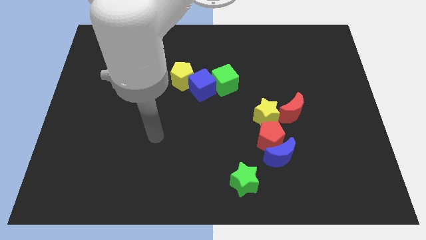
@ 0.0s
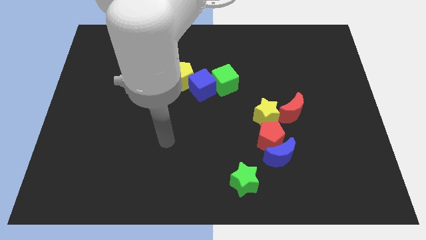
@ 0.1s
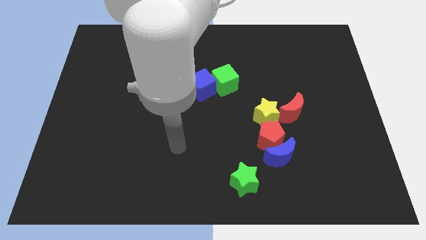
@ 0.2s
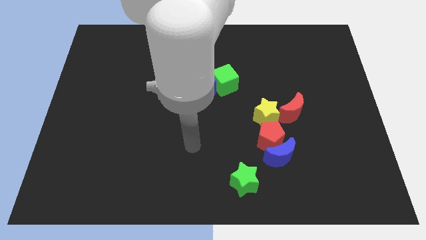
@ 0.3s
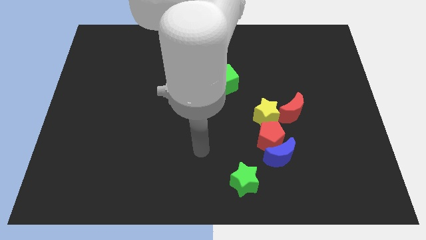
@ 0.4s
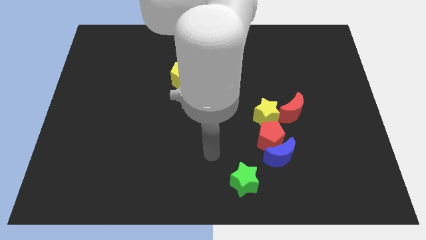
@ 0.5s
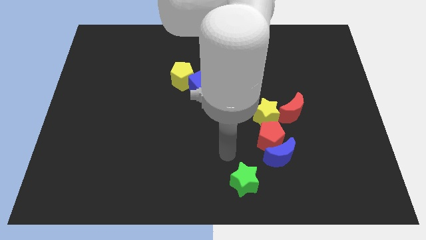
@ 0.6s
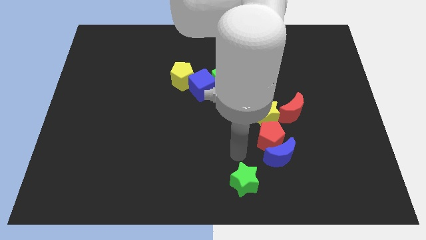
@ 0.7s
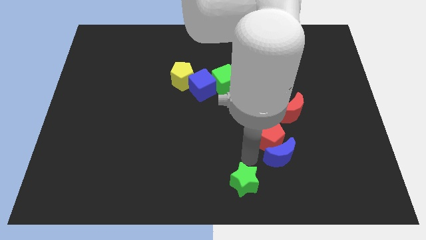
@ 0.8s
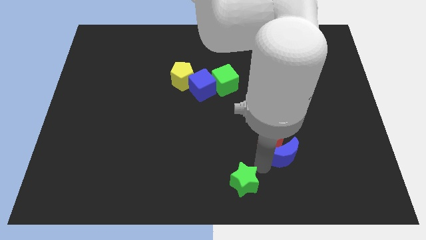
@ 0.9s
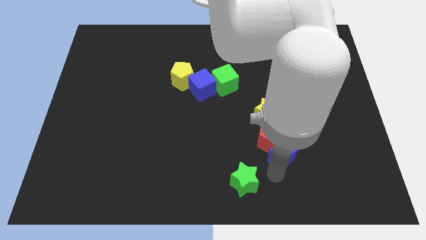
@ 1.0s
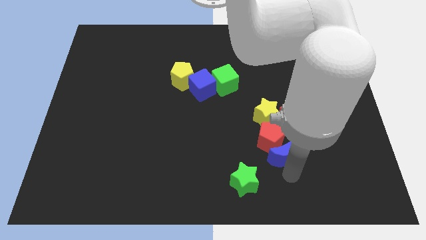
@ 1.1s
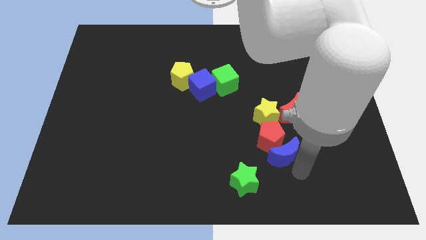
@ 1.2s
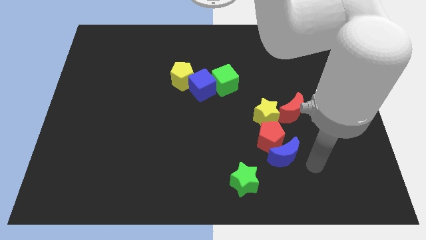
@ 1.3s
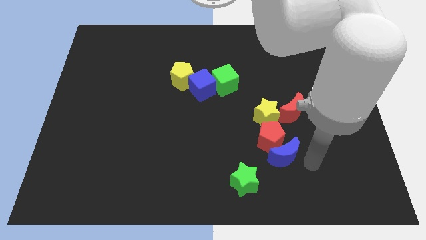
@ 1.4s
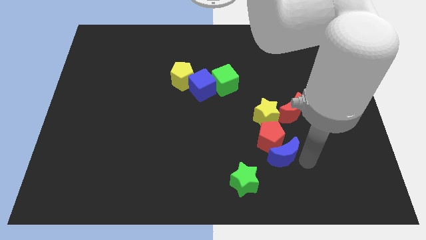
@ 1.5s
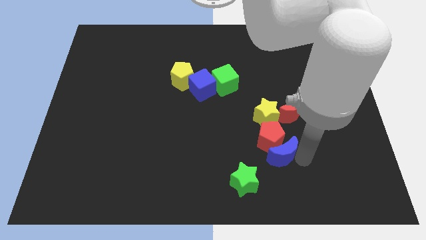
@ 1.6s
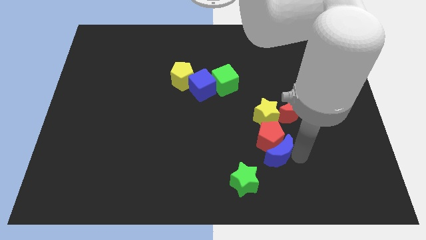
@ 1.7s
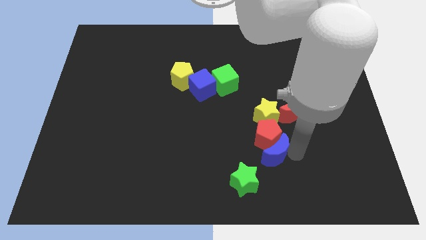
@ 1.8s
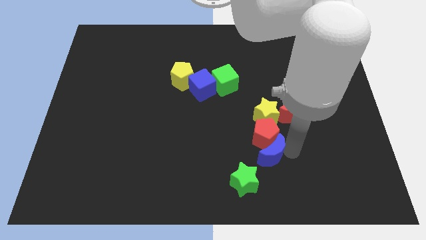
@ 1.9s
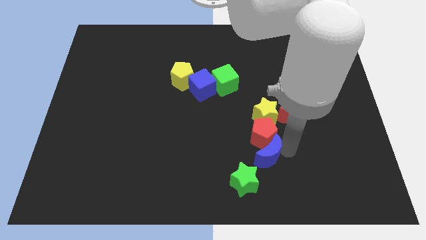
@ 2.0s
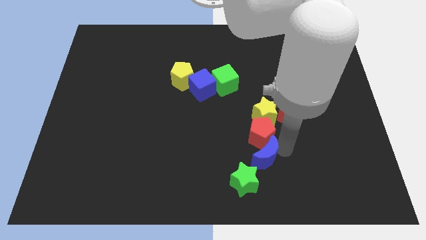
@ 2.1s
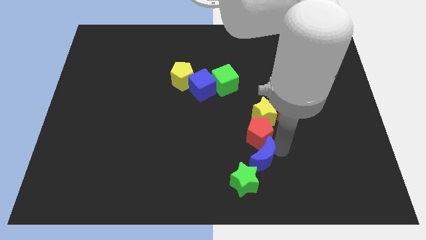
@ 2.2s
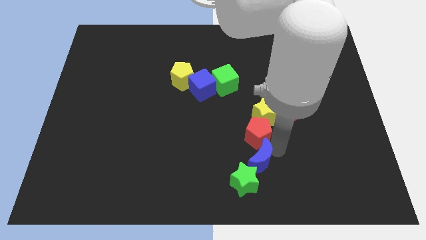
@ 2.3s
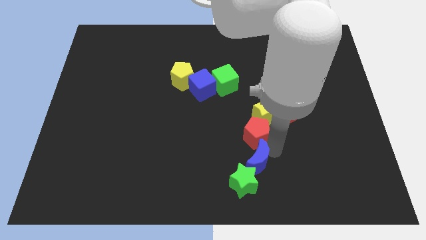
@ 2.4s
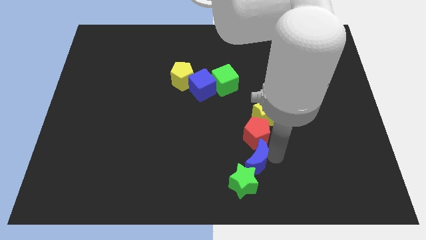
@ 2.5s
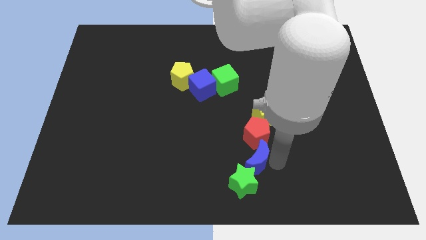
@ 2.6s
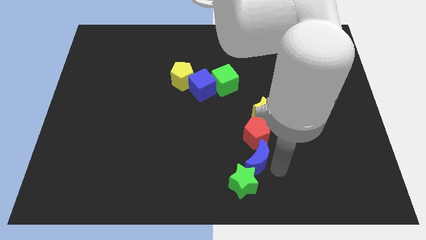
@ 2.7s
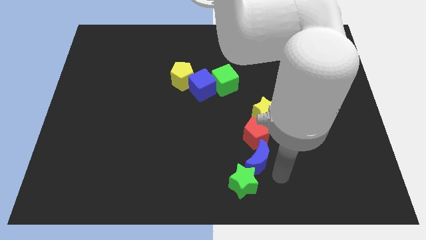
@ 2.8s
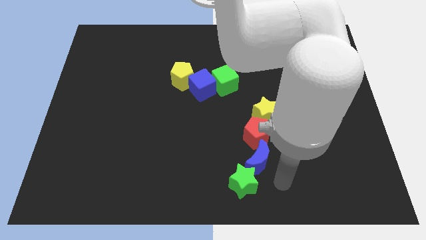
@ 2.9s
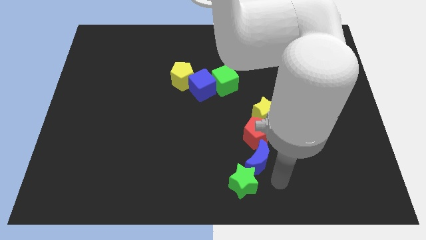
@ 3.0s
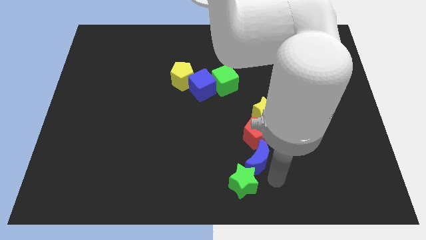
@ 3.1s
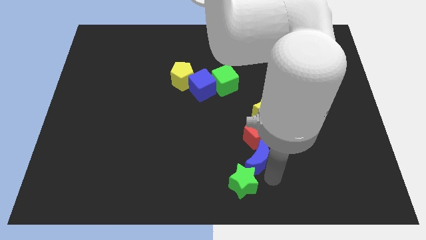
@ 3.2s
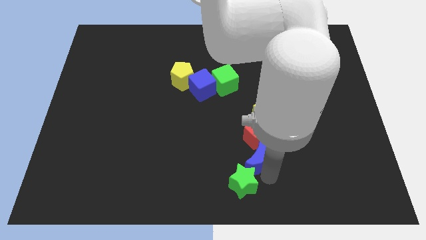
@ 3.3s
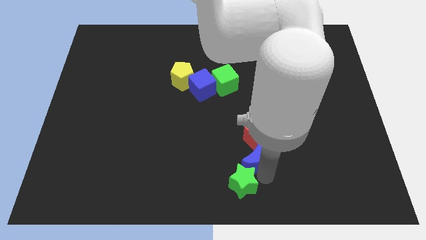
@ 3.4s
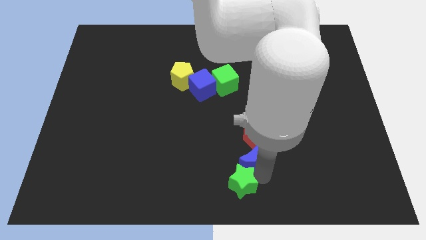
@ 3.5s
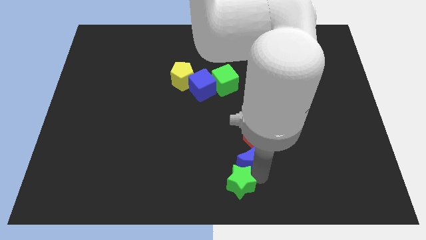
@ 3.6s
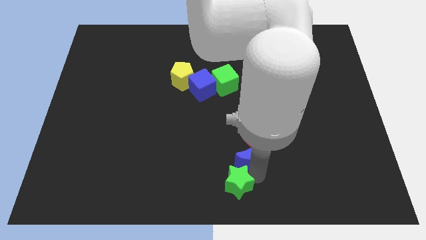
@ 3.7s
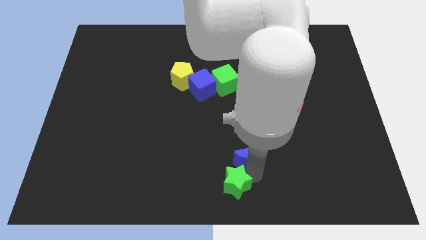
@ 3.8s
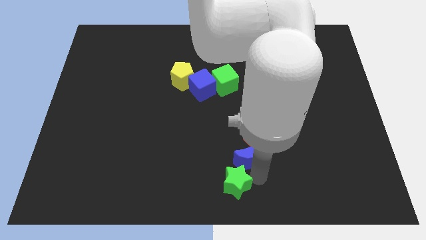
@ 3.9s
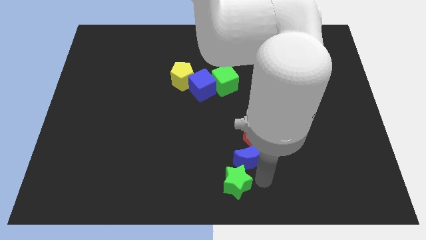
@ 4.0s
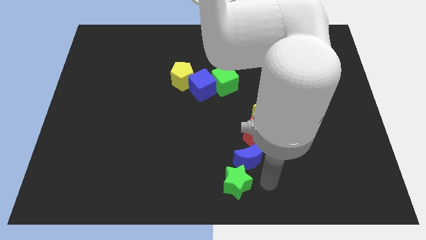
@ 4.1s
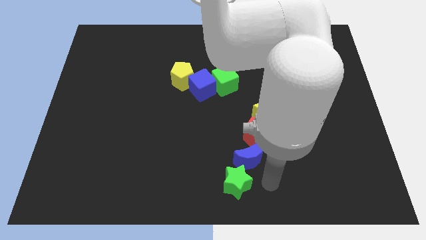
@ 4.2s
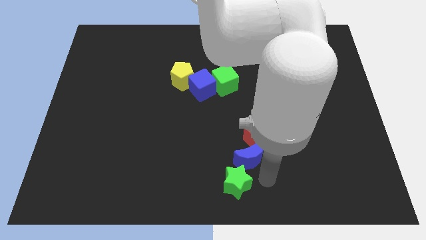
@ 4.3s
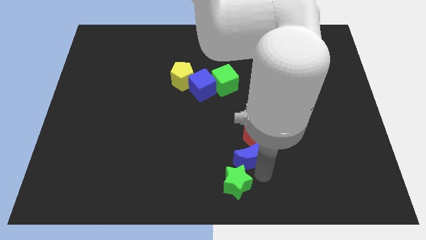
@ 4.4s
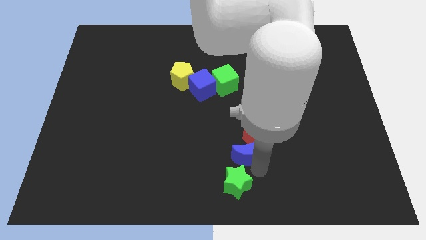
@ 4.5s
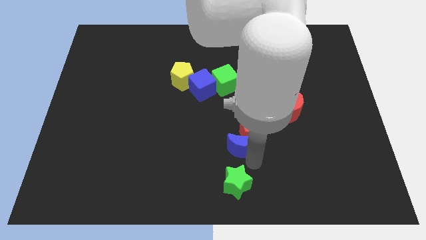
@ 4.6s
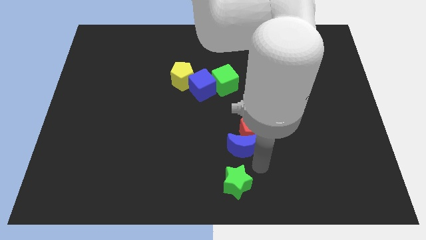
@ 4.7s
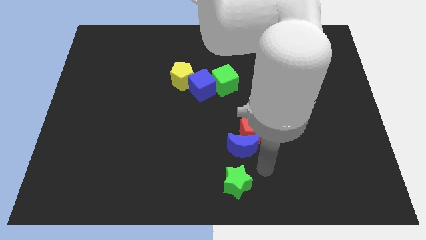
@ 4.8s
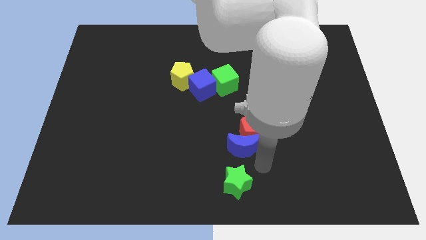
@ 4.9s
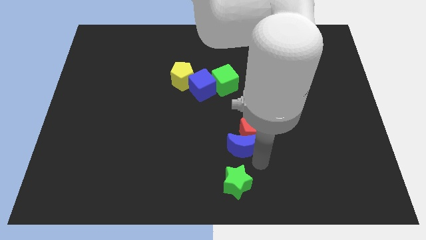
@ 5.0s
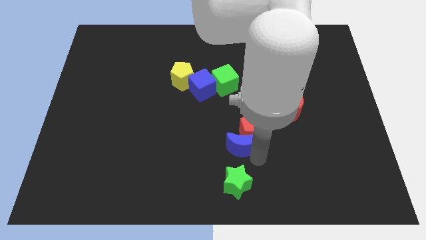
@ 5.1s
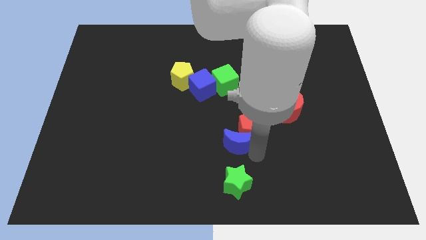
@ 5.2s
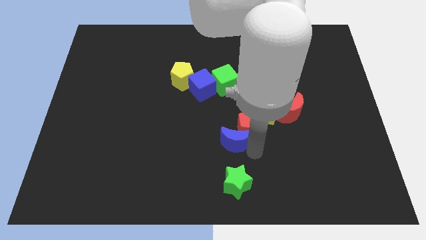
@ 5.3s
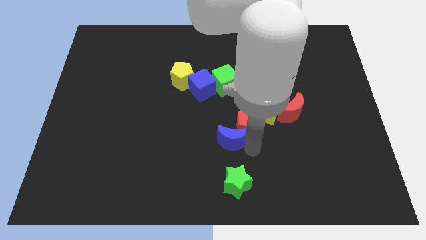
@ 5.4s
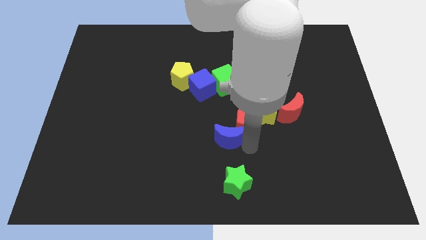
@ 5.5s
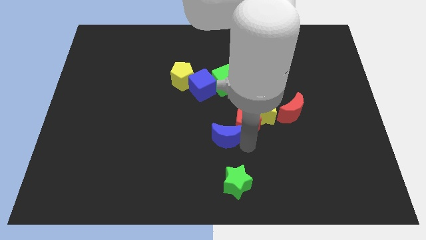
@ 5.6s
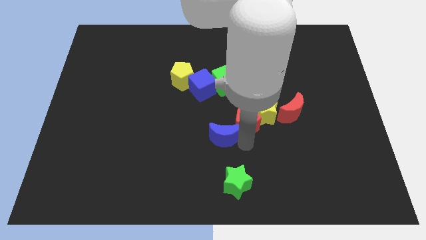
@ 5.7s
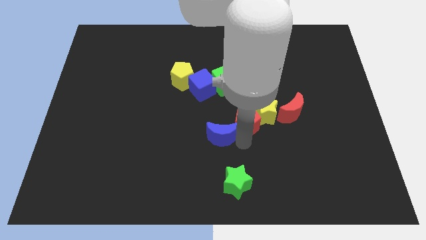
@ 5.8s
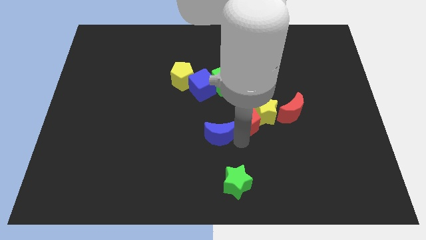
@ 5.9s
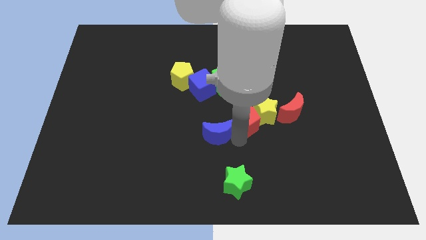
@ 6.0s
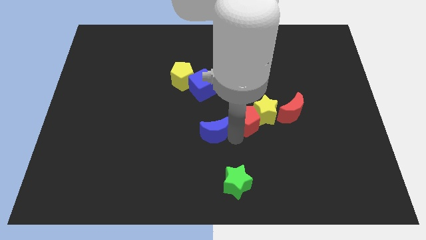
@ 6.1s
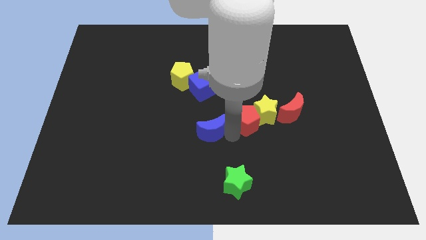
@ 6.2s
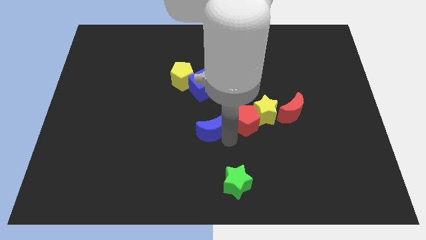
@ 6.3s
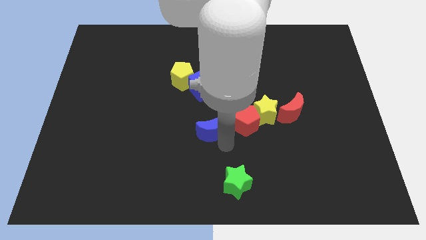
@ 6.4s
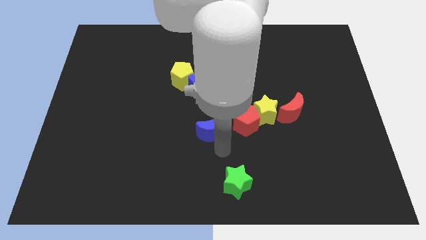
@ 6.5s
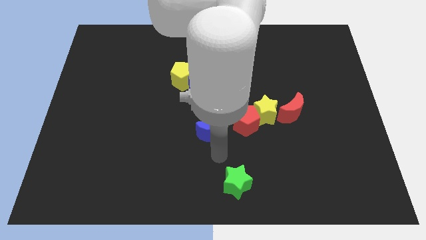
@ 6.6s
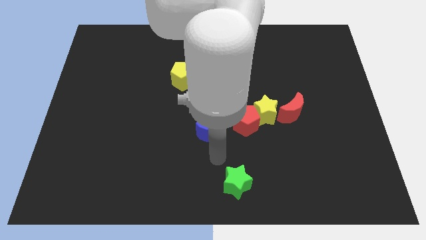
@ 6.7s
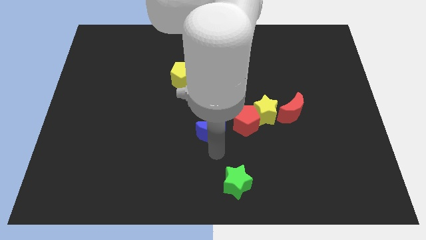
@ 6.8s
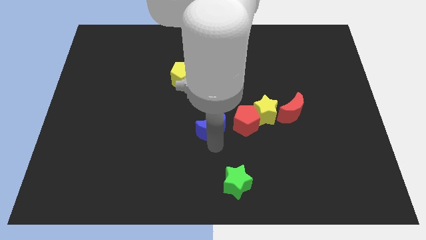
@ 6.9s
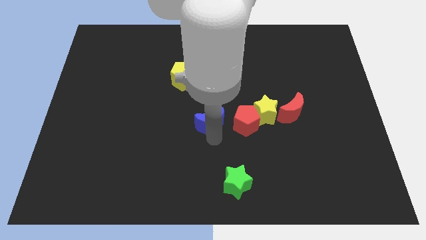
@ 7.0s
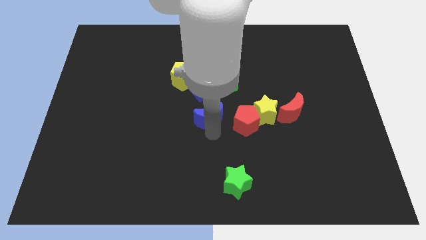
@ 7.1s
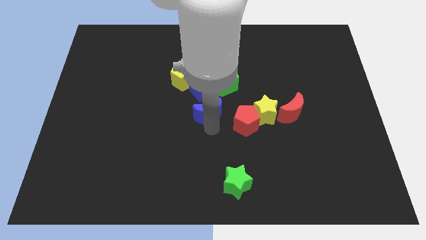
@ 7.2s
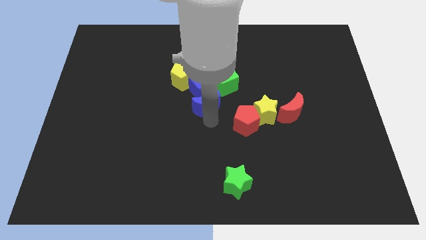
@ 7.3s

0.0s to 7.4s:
slide the blue moon next to the blue cube

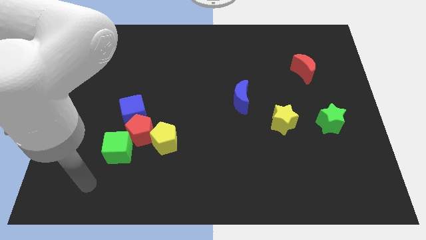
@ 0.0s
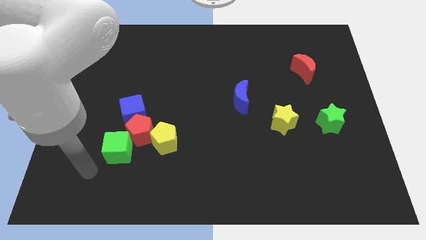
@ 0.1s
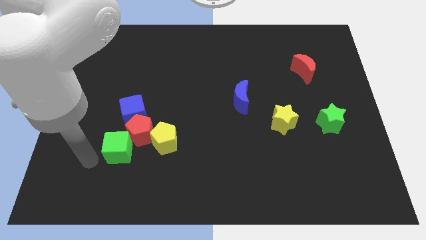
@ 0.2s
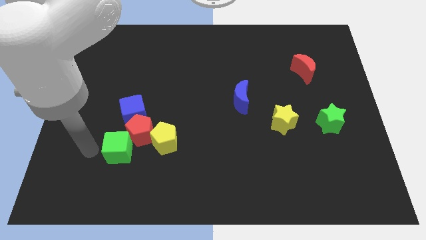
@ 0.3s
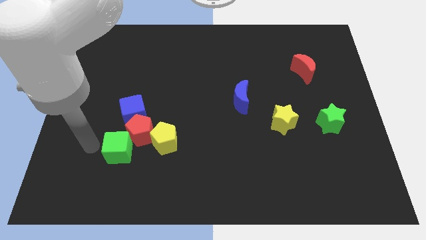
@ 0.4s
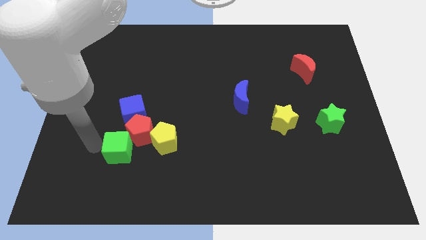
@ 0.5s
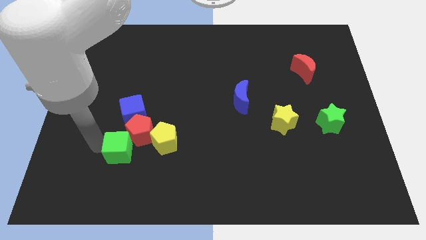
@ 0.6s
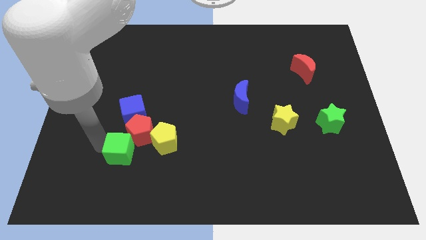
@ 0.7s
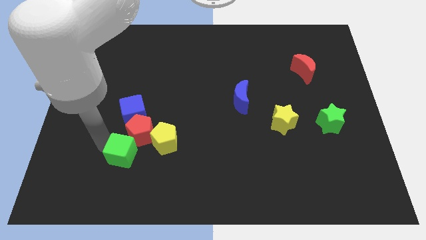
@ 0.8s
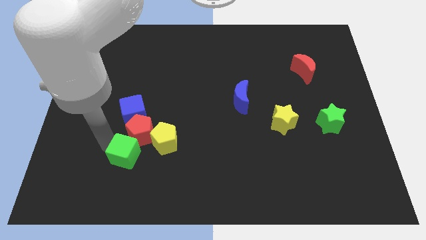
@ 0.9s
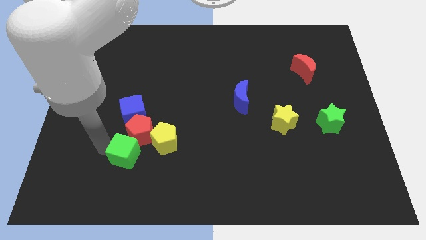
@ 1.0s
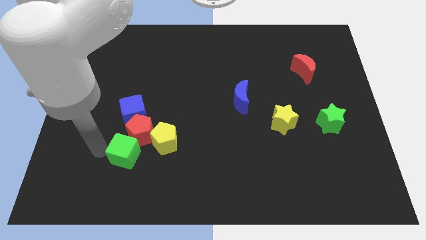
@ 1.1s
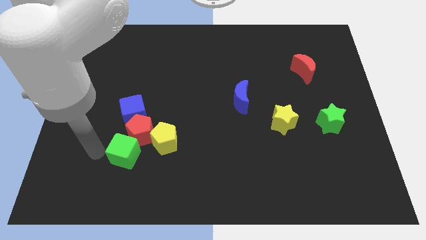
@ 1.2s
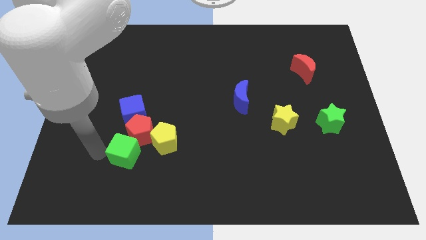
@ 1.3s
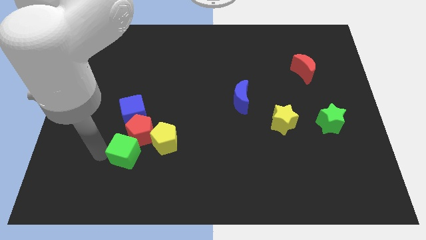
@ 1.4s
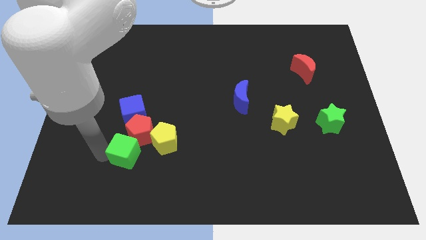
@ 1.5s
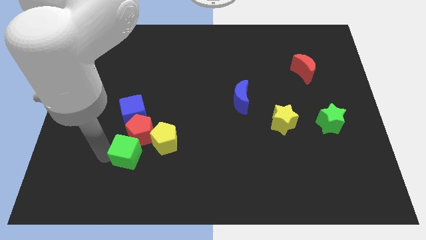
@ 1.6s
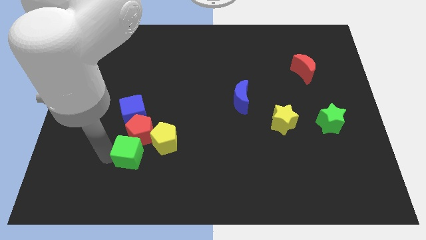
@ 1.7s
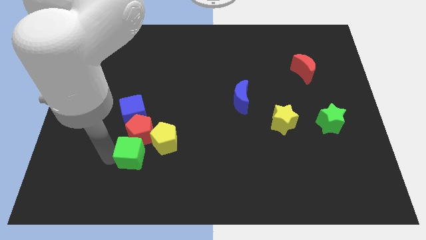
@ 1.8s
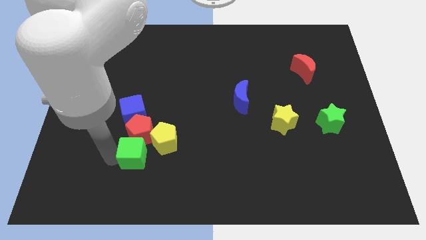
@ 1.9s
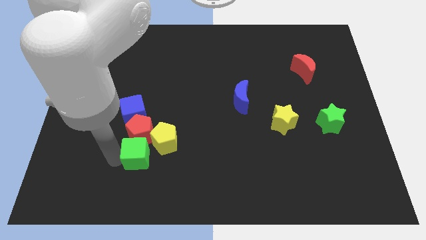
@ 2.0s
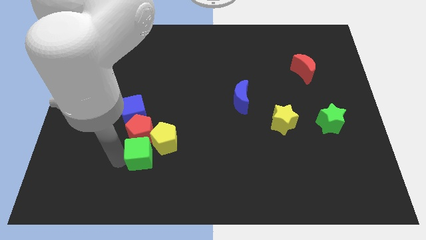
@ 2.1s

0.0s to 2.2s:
push the green cube close to the yellow pentagon
